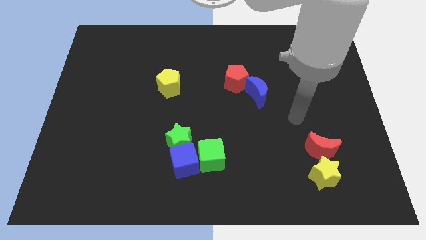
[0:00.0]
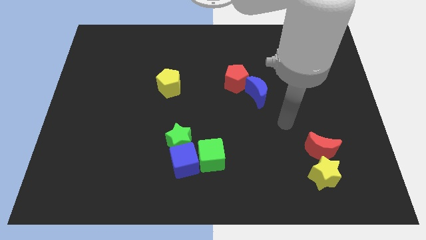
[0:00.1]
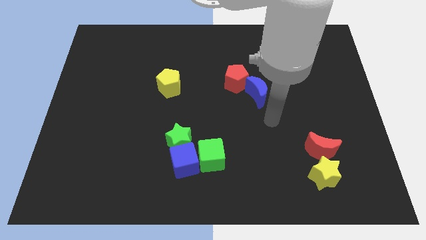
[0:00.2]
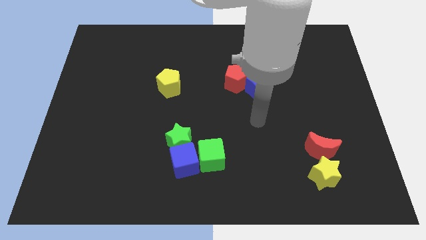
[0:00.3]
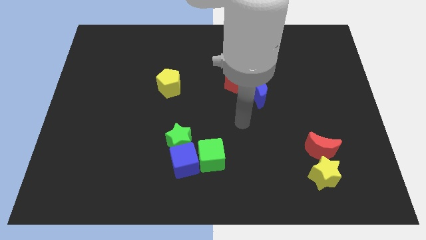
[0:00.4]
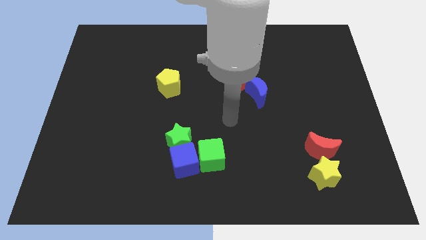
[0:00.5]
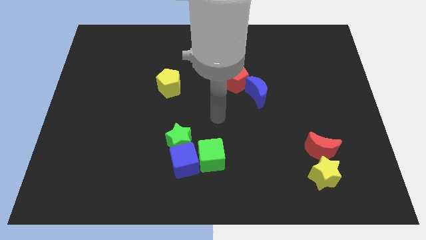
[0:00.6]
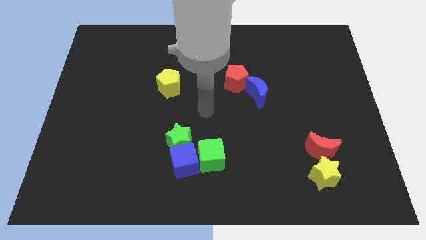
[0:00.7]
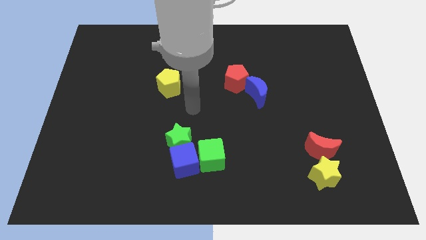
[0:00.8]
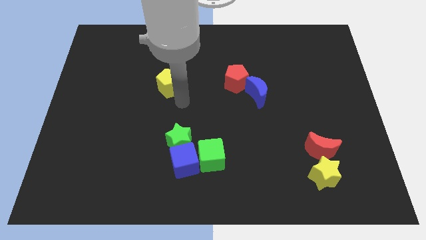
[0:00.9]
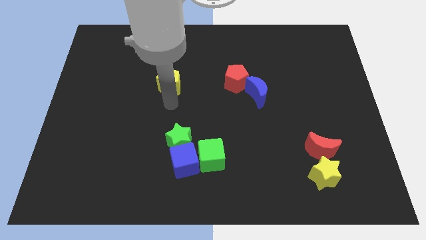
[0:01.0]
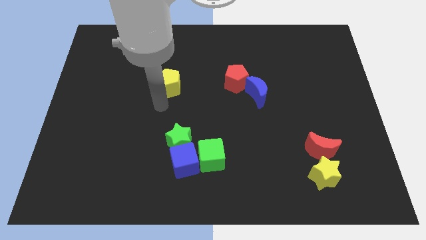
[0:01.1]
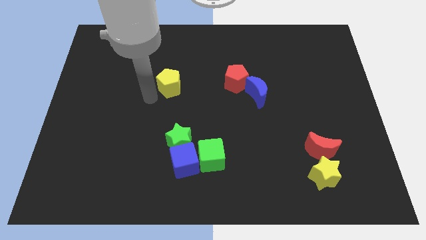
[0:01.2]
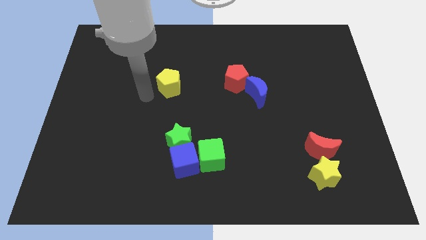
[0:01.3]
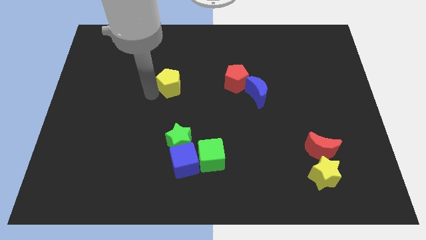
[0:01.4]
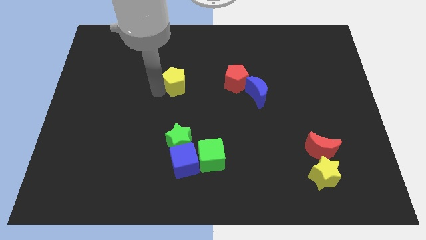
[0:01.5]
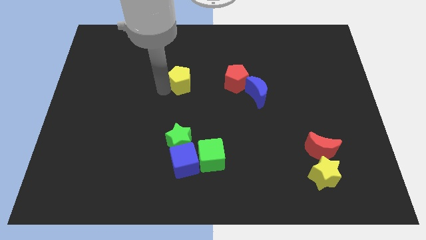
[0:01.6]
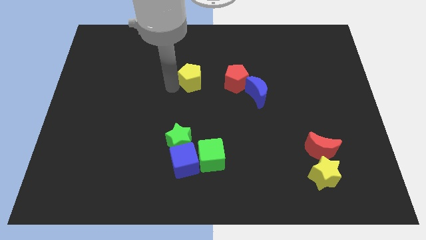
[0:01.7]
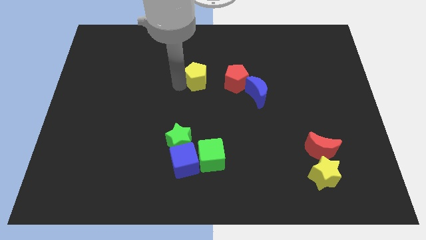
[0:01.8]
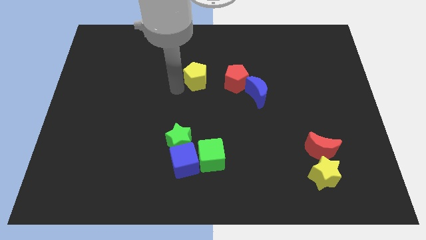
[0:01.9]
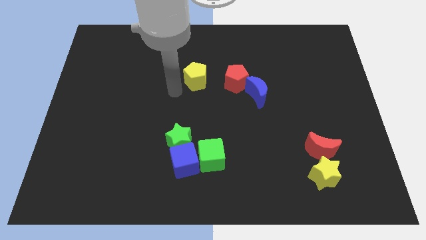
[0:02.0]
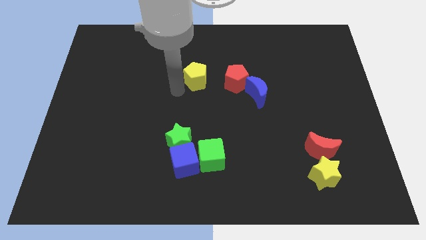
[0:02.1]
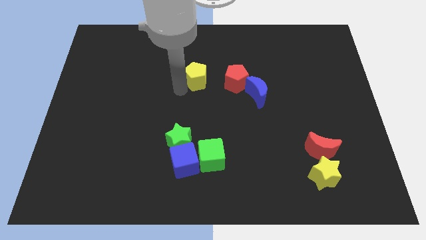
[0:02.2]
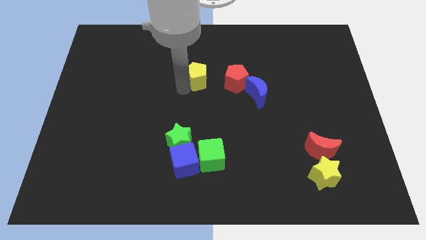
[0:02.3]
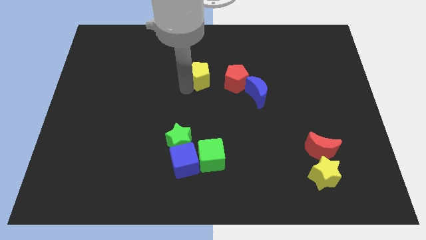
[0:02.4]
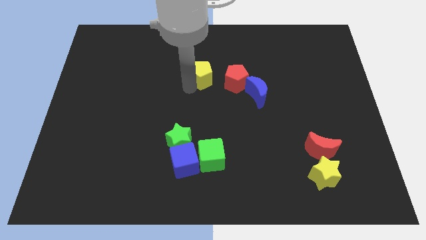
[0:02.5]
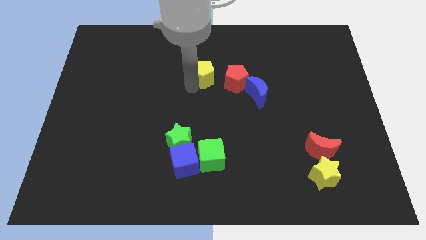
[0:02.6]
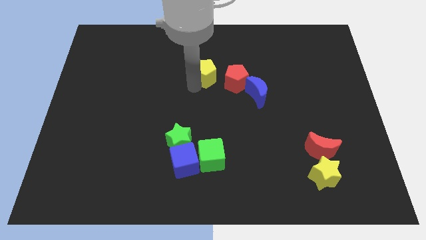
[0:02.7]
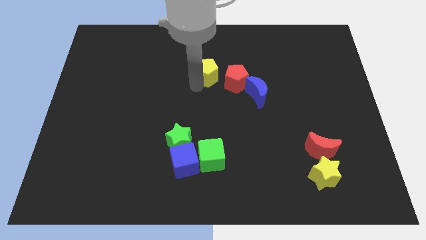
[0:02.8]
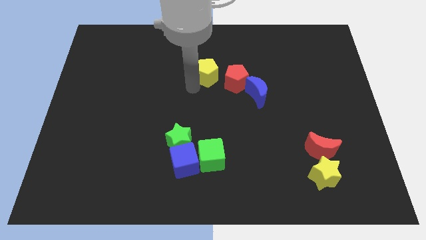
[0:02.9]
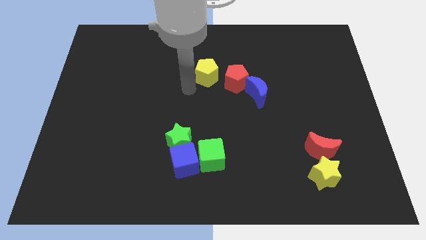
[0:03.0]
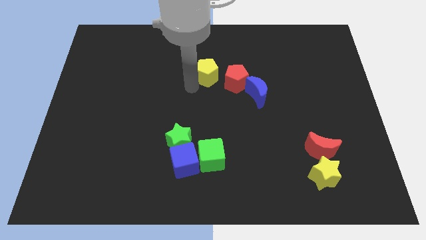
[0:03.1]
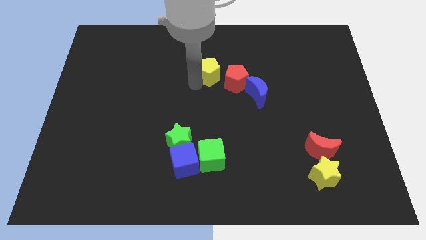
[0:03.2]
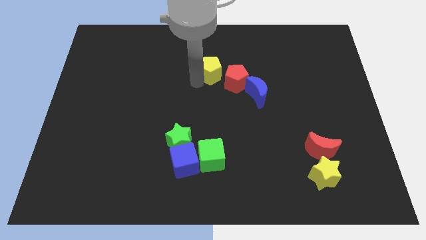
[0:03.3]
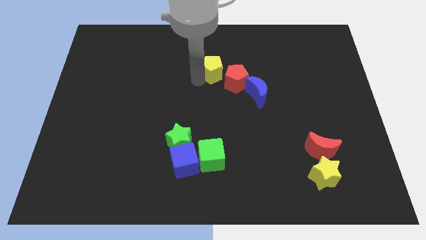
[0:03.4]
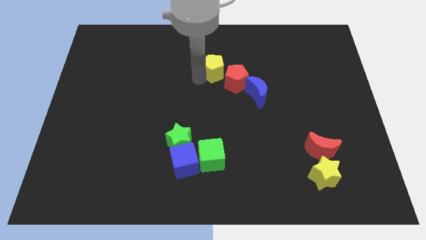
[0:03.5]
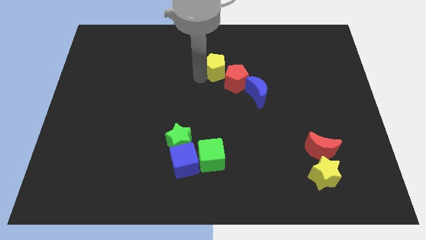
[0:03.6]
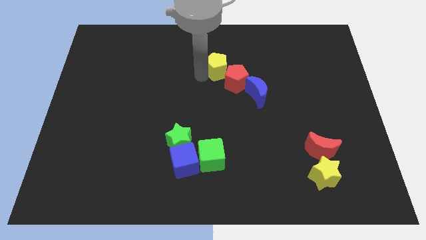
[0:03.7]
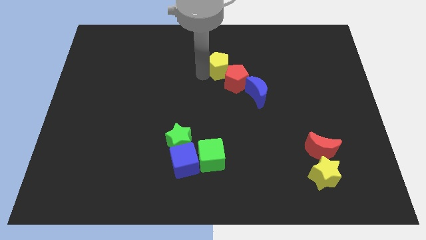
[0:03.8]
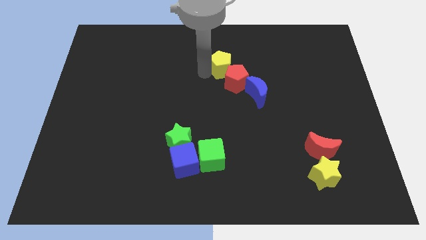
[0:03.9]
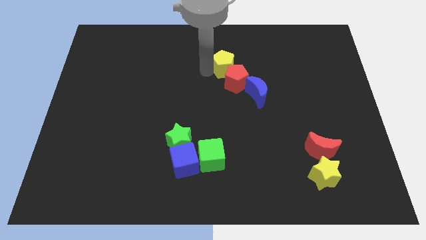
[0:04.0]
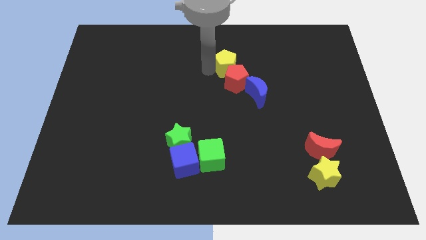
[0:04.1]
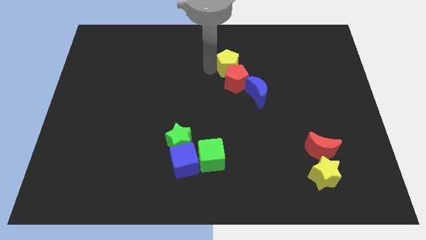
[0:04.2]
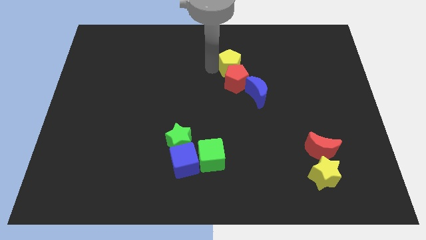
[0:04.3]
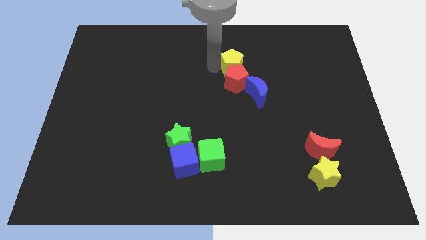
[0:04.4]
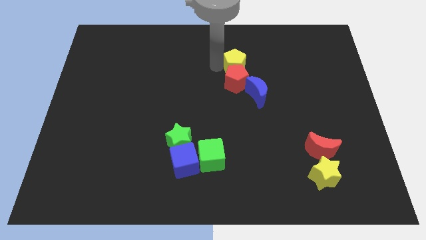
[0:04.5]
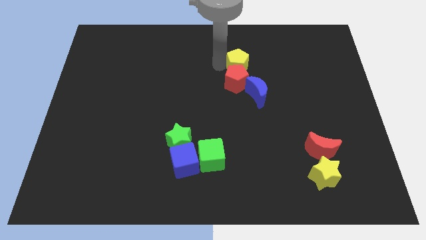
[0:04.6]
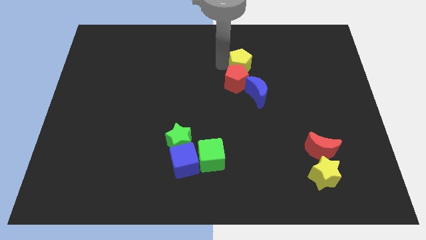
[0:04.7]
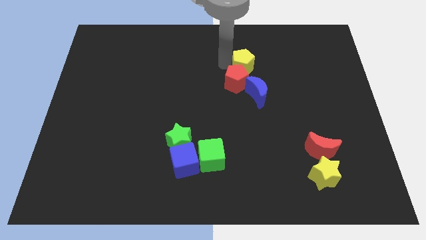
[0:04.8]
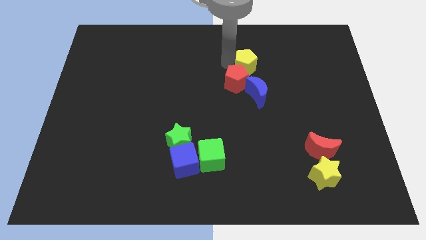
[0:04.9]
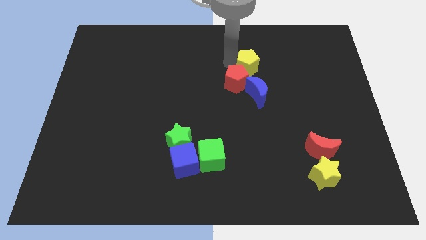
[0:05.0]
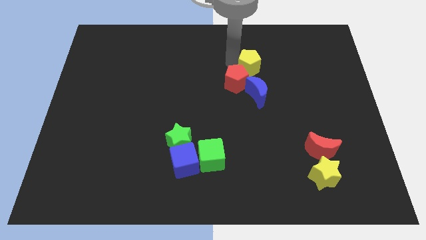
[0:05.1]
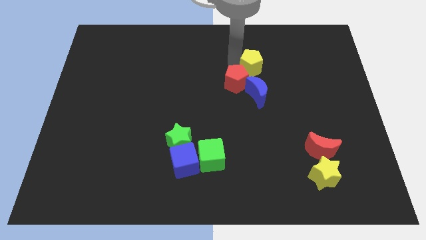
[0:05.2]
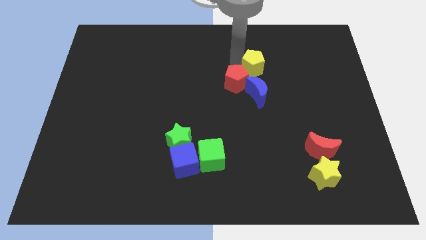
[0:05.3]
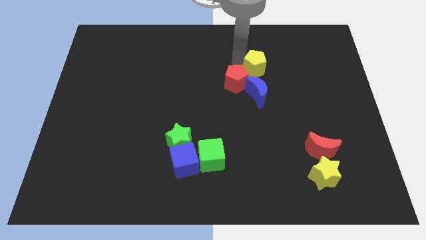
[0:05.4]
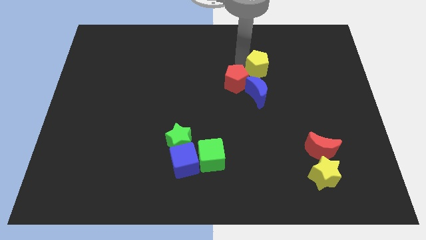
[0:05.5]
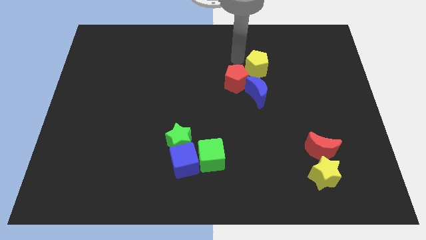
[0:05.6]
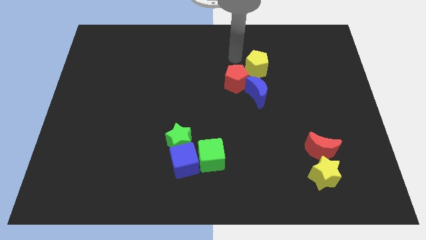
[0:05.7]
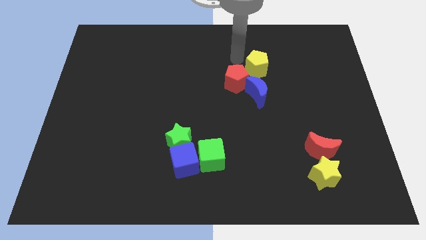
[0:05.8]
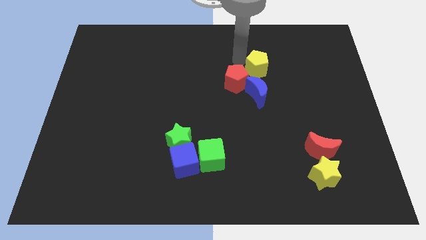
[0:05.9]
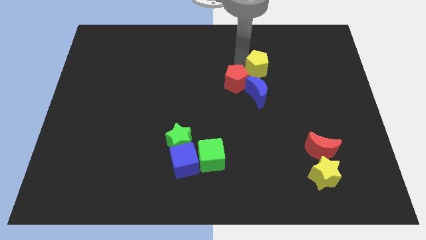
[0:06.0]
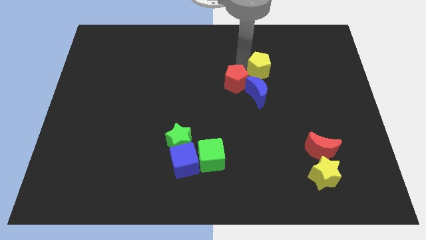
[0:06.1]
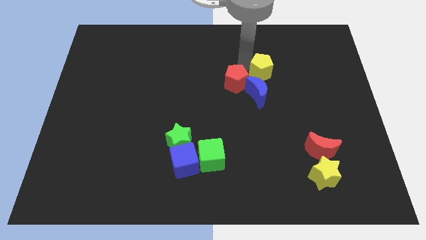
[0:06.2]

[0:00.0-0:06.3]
put the yellow pentagon diagonally up and to the right of the blue moon

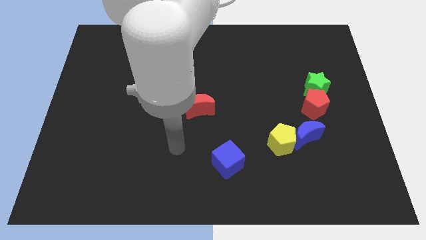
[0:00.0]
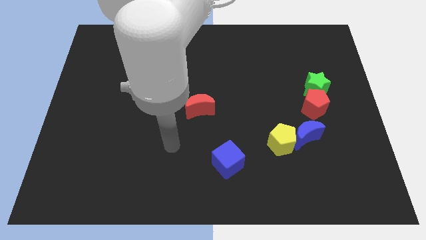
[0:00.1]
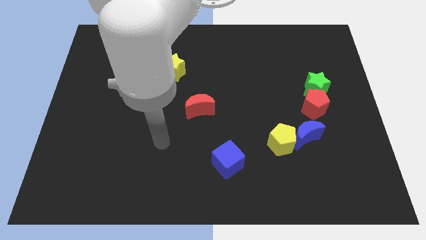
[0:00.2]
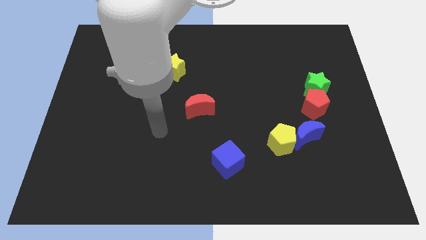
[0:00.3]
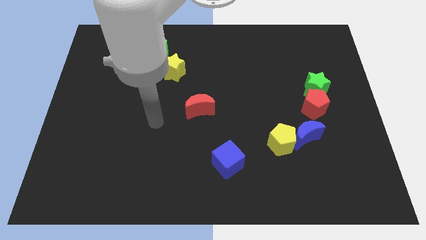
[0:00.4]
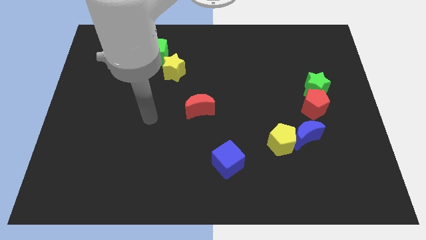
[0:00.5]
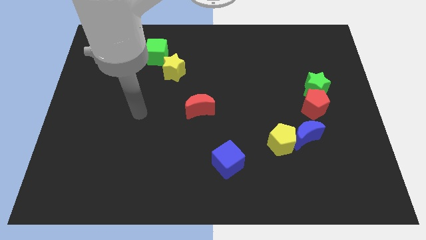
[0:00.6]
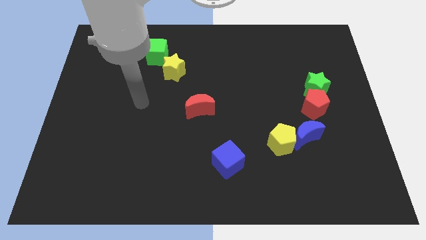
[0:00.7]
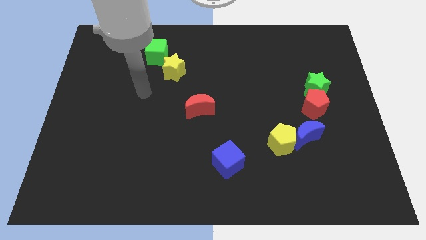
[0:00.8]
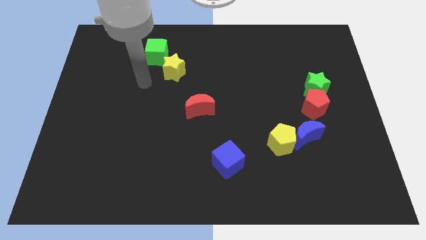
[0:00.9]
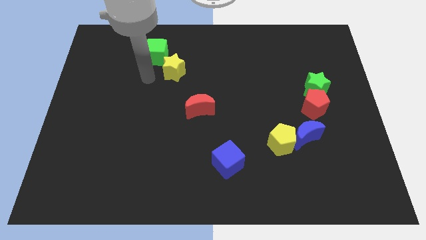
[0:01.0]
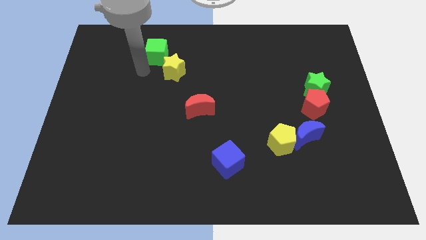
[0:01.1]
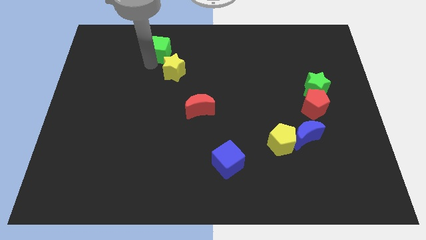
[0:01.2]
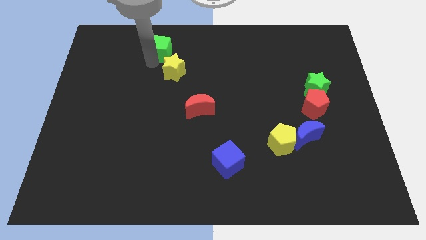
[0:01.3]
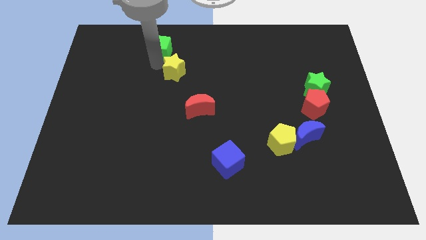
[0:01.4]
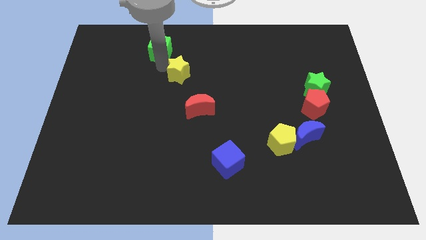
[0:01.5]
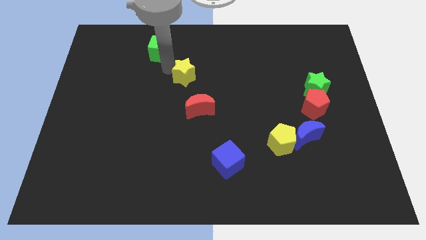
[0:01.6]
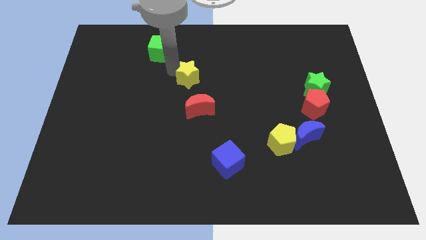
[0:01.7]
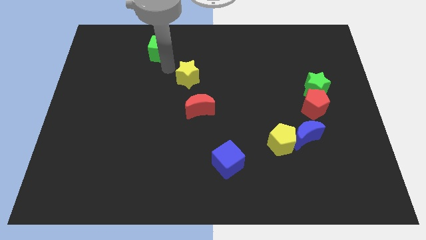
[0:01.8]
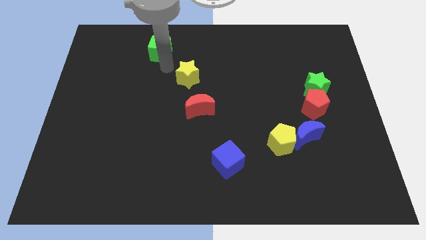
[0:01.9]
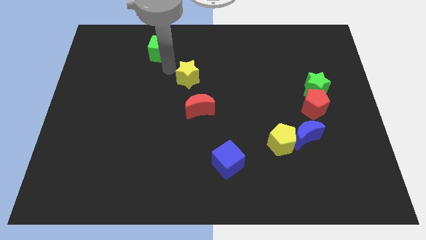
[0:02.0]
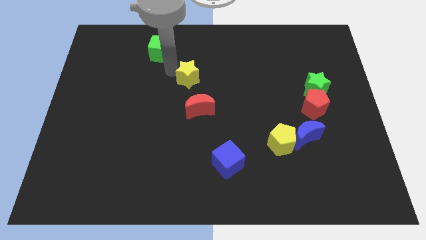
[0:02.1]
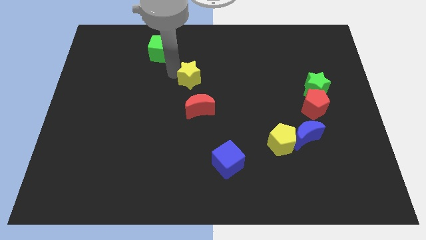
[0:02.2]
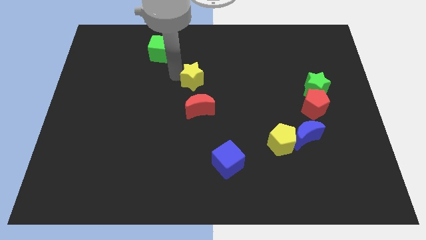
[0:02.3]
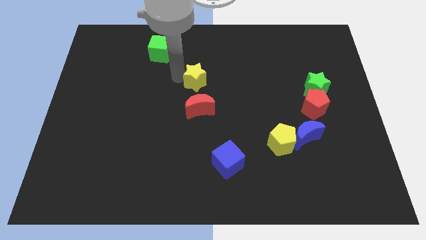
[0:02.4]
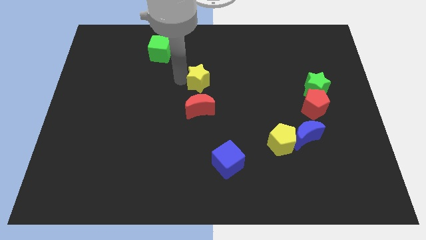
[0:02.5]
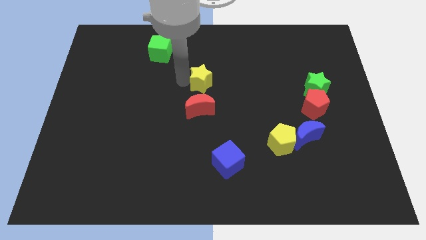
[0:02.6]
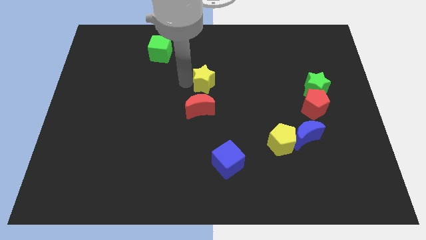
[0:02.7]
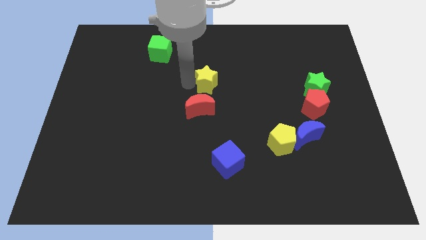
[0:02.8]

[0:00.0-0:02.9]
move the yellow star to the top right side of the red moon
